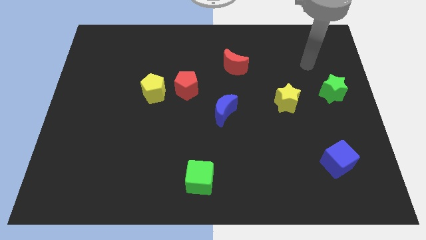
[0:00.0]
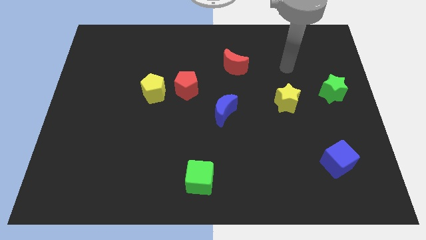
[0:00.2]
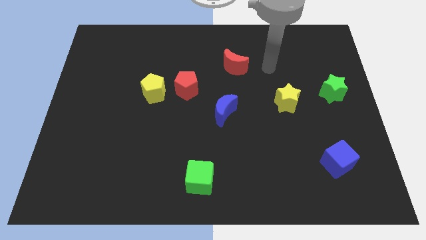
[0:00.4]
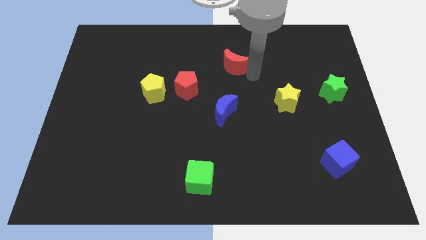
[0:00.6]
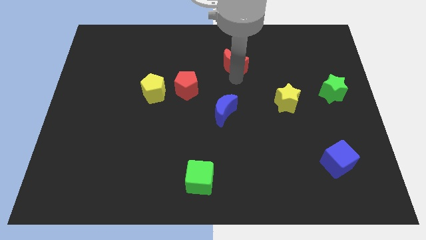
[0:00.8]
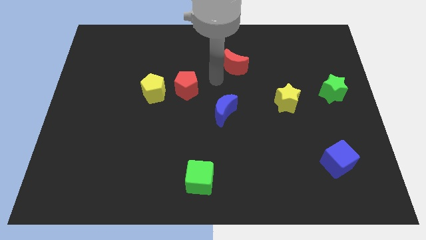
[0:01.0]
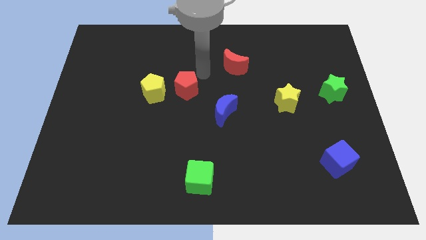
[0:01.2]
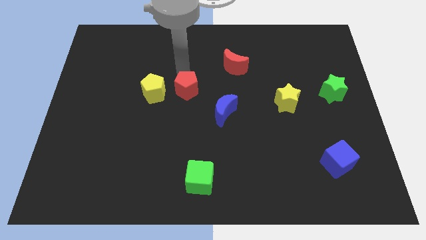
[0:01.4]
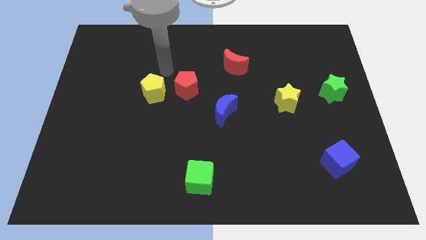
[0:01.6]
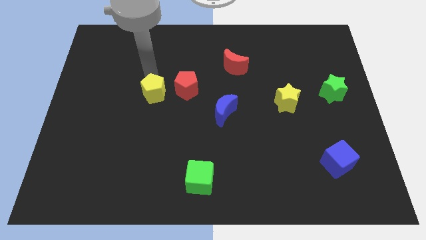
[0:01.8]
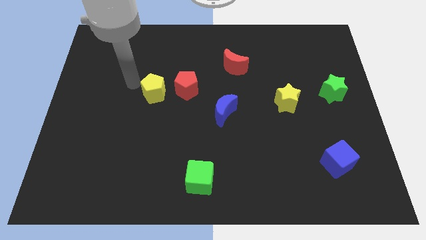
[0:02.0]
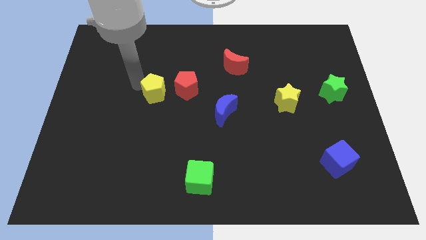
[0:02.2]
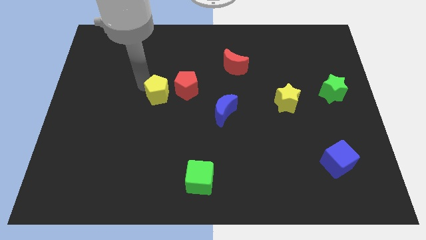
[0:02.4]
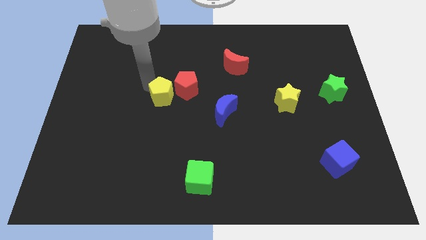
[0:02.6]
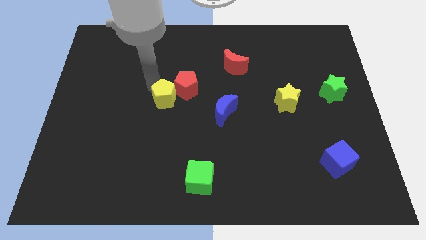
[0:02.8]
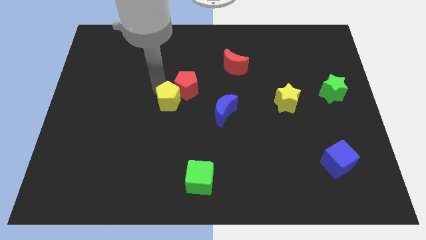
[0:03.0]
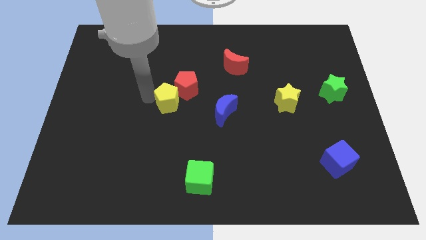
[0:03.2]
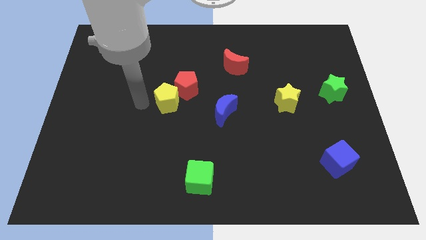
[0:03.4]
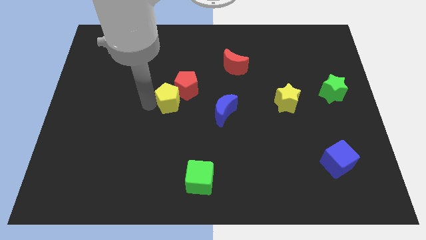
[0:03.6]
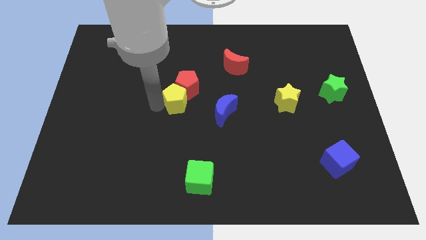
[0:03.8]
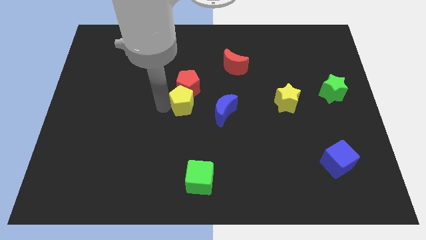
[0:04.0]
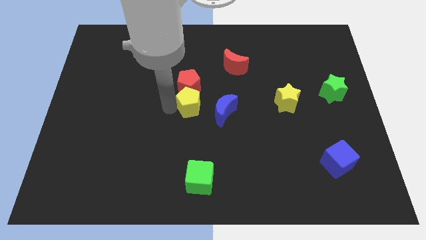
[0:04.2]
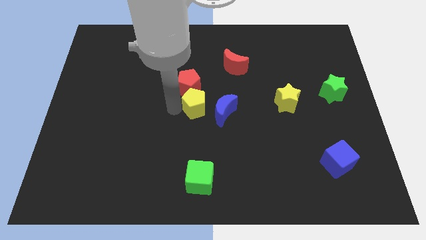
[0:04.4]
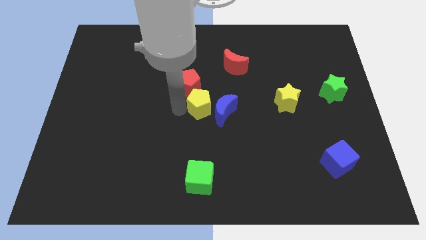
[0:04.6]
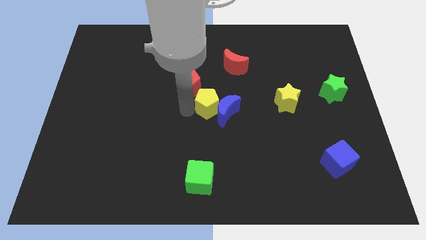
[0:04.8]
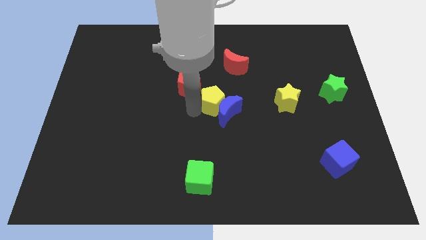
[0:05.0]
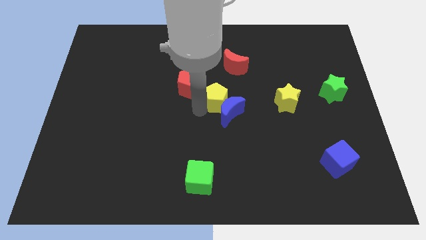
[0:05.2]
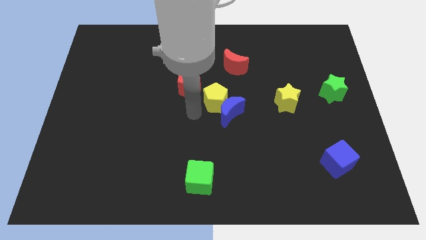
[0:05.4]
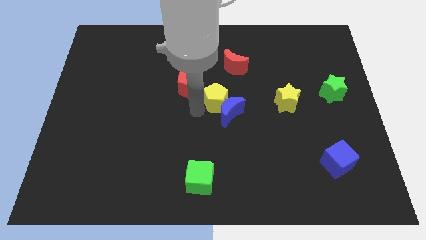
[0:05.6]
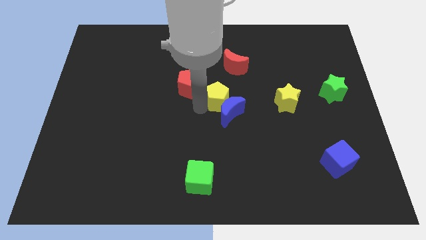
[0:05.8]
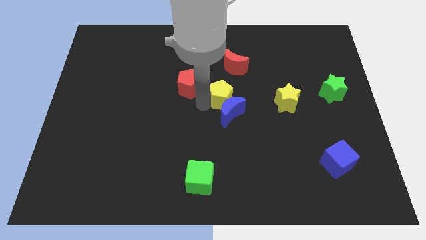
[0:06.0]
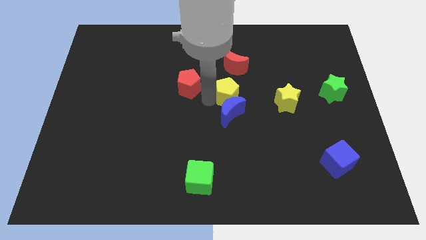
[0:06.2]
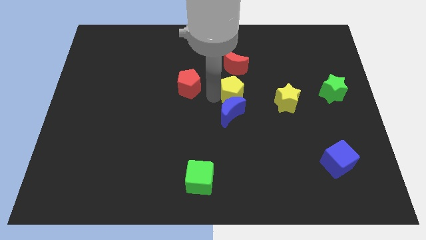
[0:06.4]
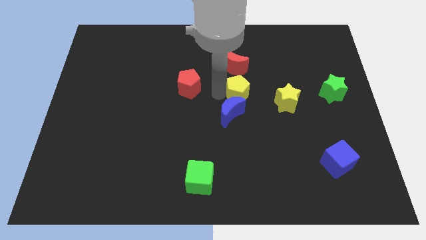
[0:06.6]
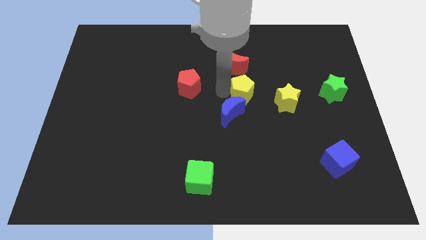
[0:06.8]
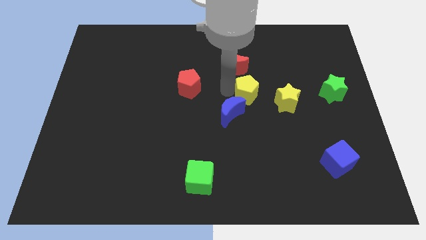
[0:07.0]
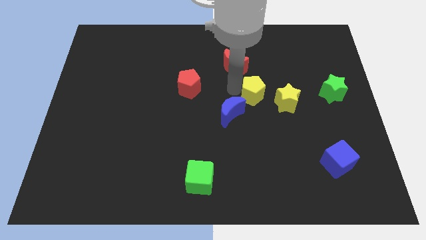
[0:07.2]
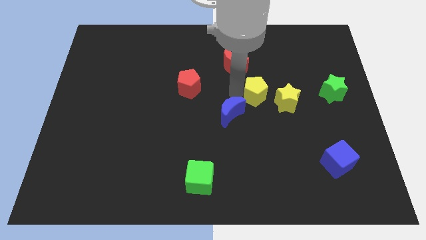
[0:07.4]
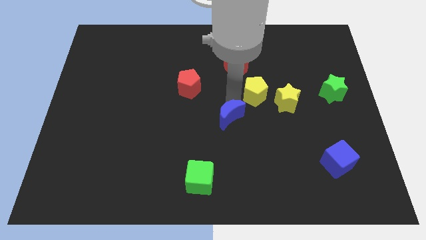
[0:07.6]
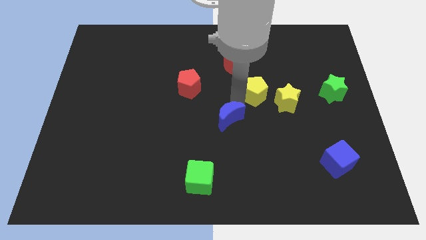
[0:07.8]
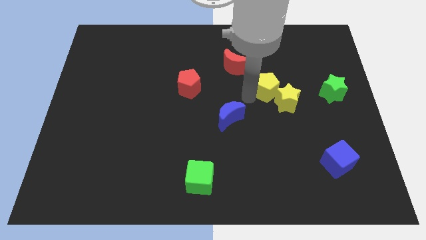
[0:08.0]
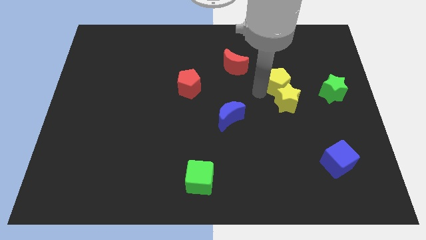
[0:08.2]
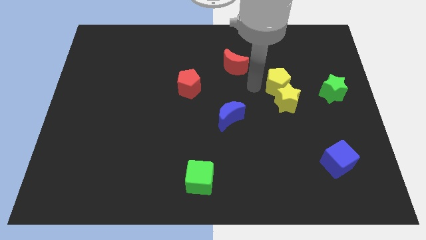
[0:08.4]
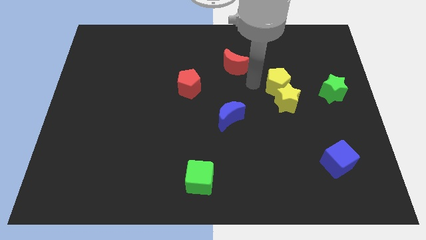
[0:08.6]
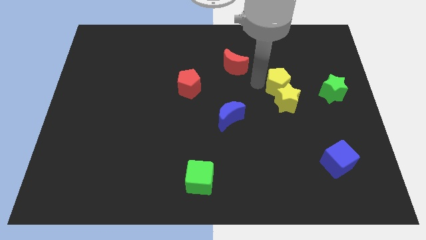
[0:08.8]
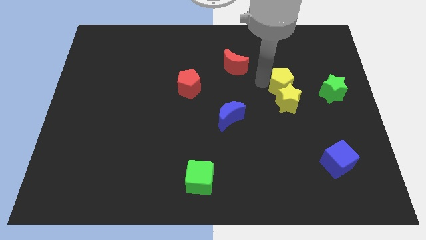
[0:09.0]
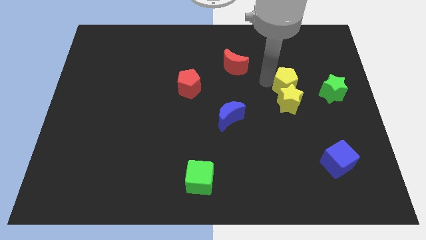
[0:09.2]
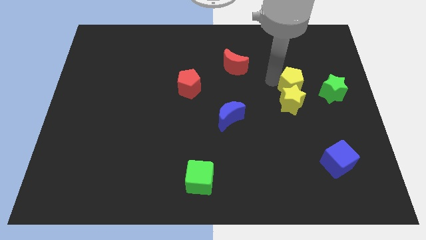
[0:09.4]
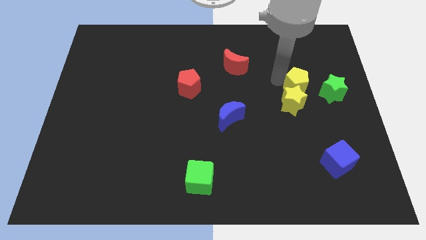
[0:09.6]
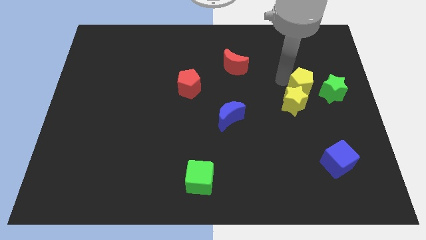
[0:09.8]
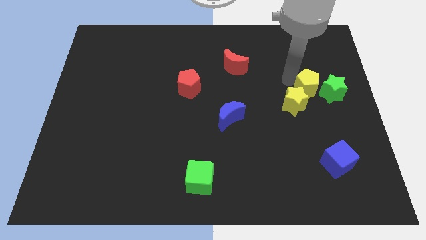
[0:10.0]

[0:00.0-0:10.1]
slide the yellow pentagon to the green star

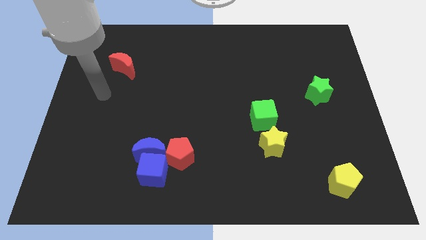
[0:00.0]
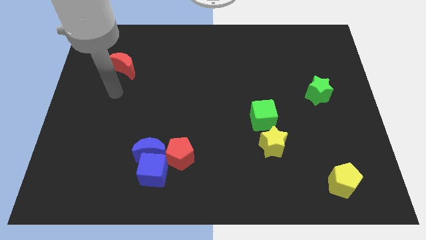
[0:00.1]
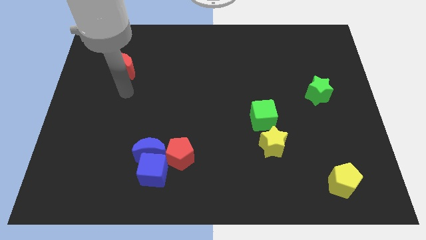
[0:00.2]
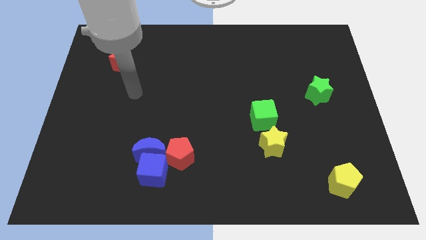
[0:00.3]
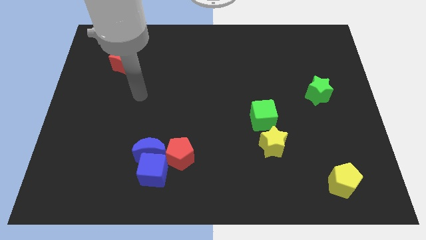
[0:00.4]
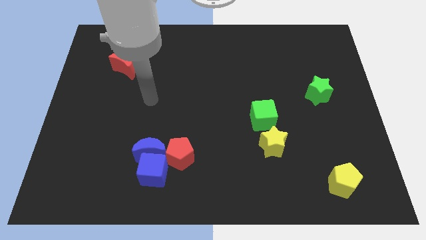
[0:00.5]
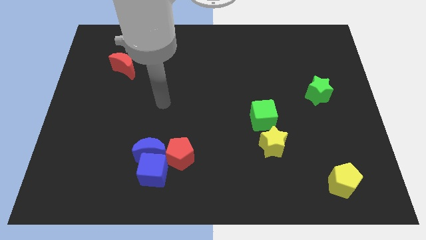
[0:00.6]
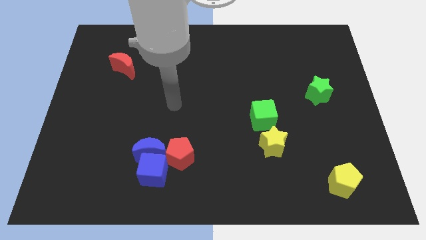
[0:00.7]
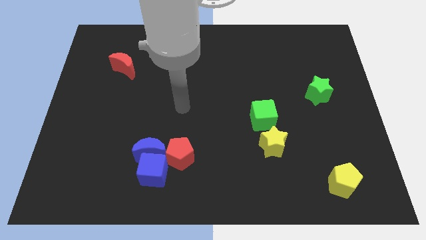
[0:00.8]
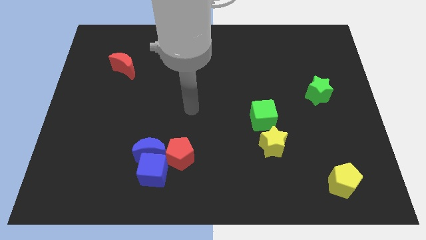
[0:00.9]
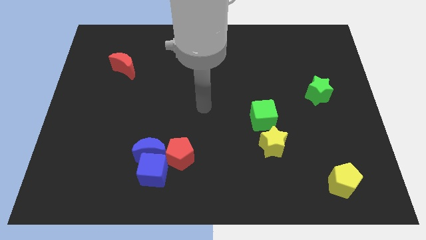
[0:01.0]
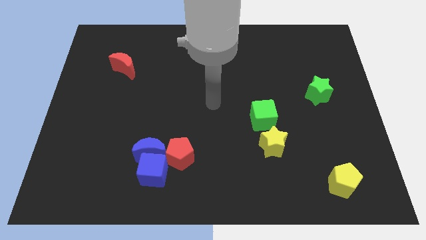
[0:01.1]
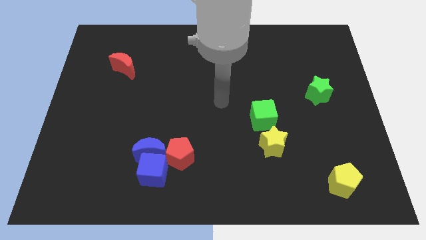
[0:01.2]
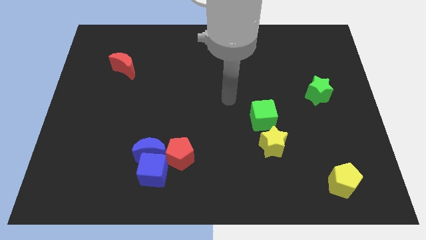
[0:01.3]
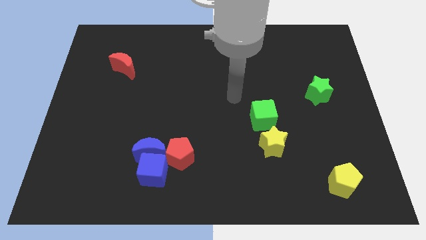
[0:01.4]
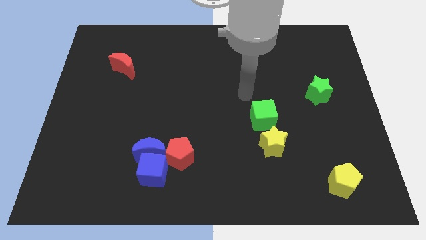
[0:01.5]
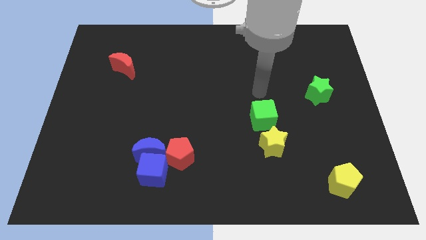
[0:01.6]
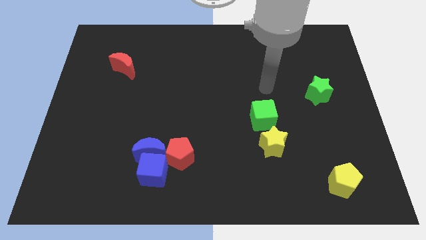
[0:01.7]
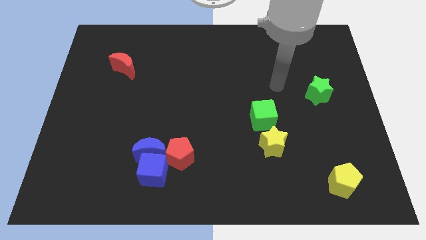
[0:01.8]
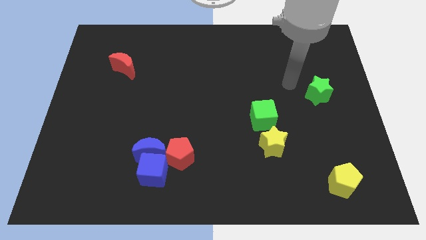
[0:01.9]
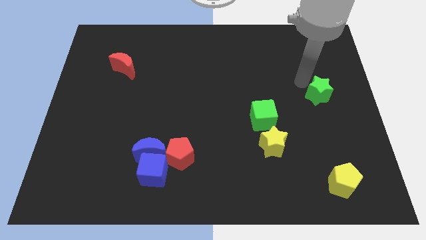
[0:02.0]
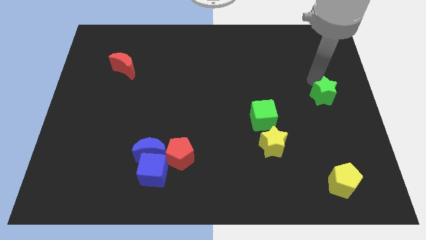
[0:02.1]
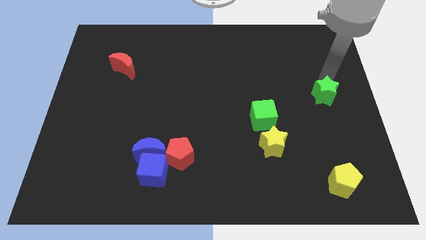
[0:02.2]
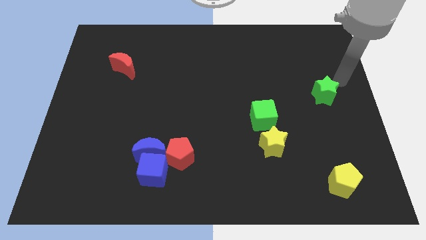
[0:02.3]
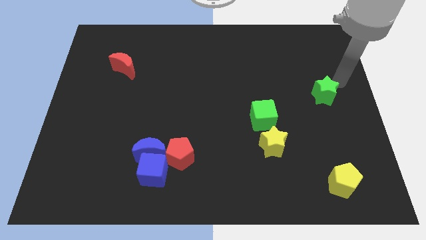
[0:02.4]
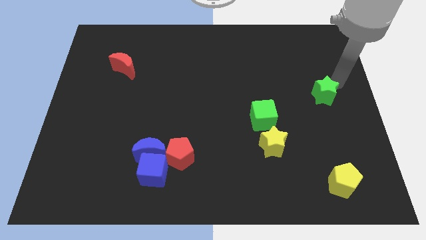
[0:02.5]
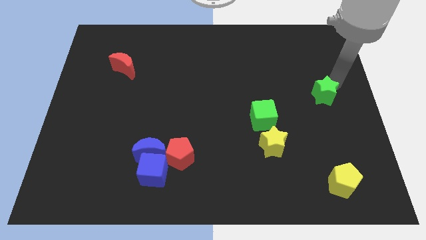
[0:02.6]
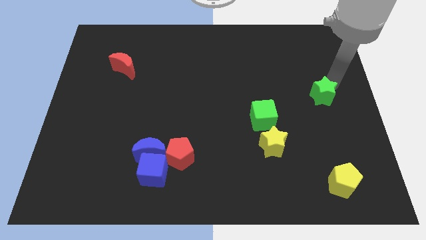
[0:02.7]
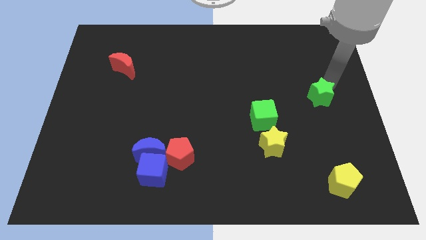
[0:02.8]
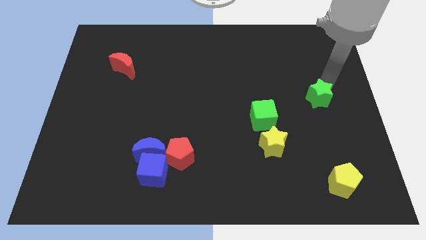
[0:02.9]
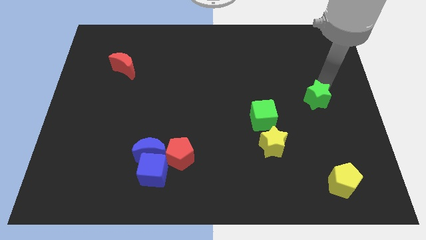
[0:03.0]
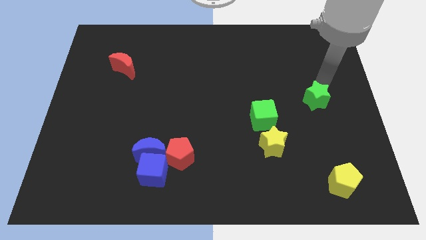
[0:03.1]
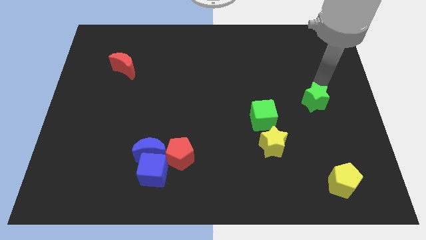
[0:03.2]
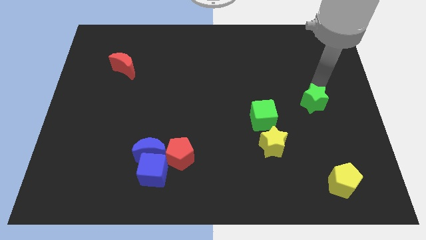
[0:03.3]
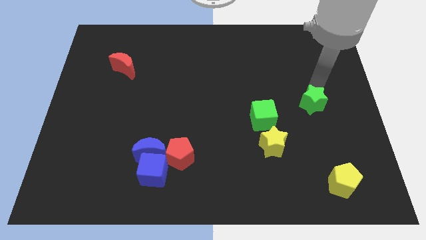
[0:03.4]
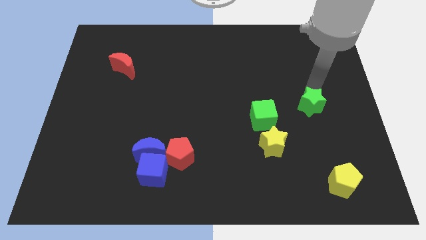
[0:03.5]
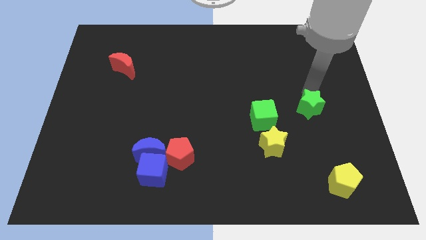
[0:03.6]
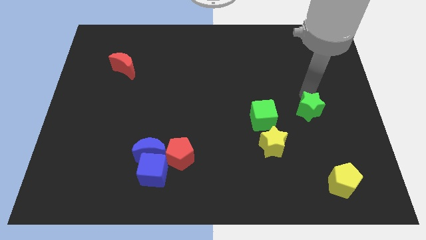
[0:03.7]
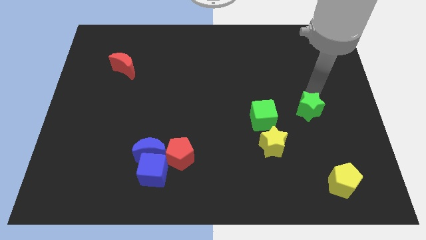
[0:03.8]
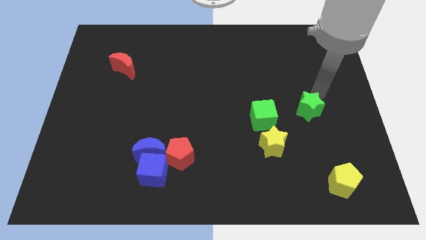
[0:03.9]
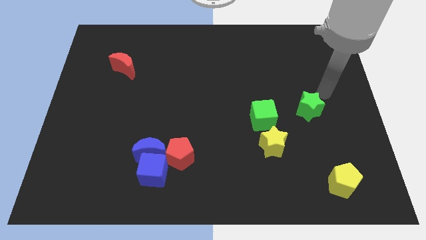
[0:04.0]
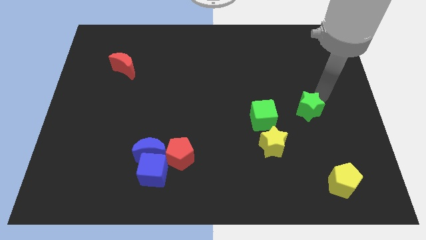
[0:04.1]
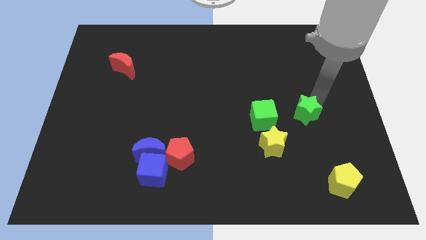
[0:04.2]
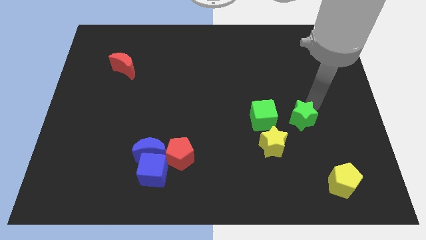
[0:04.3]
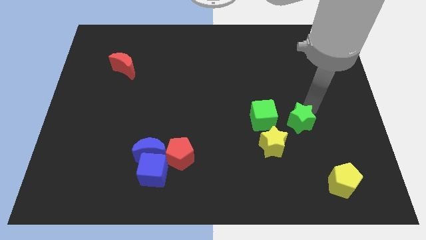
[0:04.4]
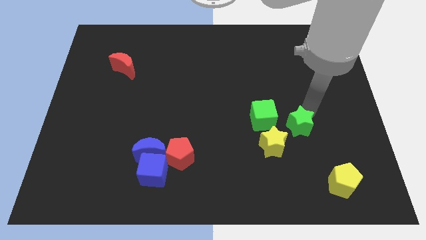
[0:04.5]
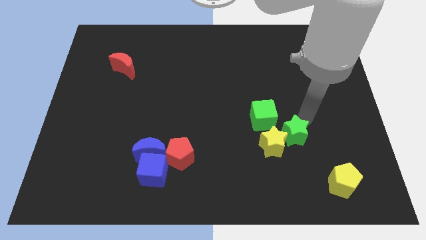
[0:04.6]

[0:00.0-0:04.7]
slide the green star close to the yellow star
